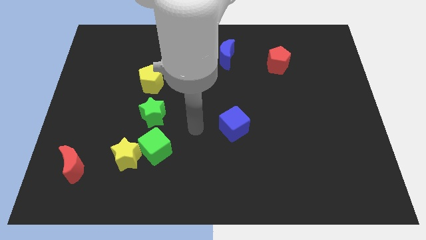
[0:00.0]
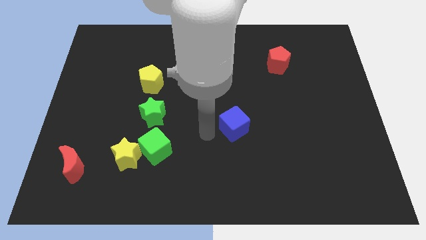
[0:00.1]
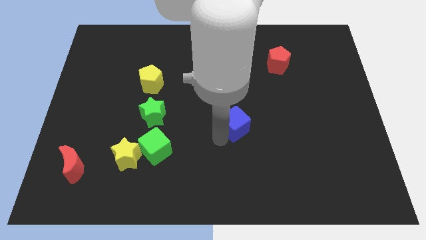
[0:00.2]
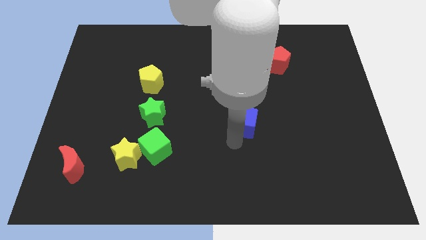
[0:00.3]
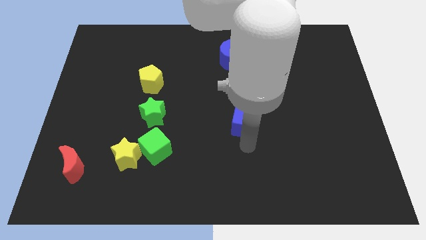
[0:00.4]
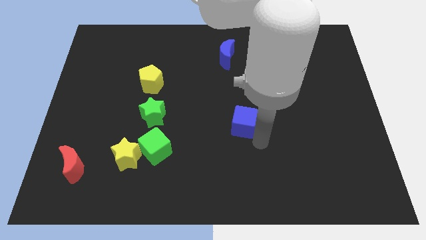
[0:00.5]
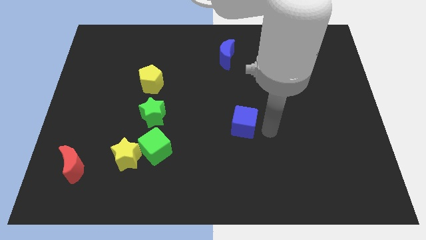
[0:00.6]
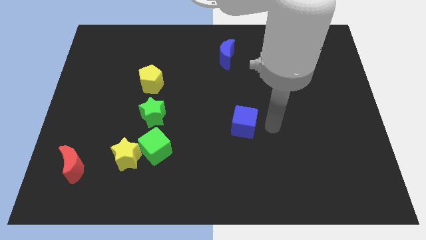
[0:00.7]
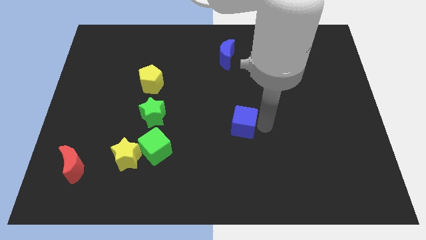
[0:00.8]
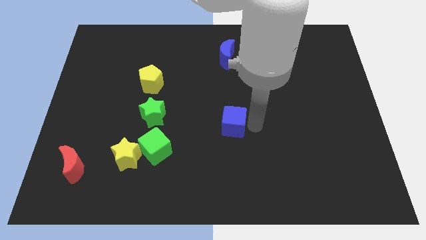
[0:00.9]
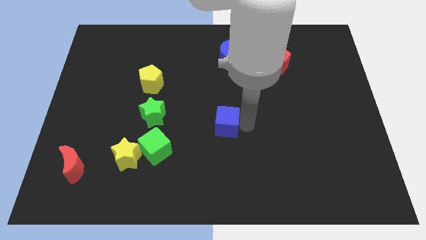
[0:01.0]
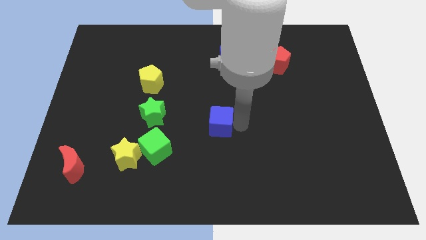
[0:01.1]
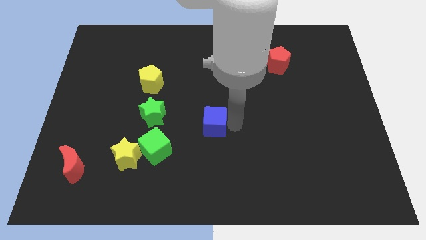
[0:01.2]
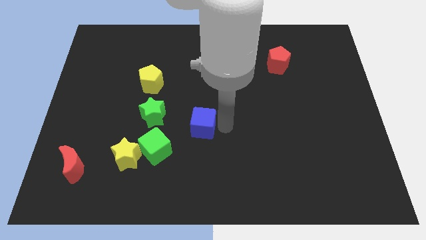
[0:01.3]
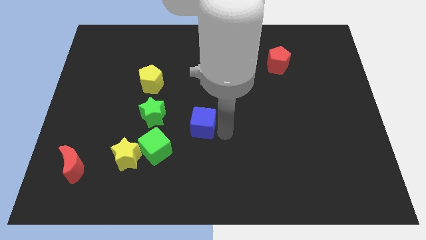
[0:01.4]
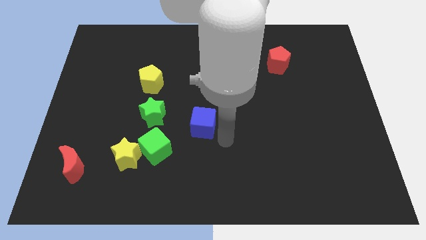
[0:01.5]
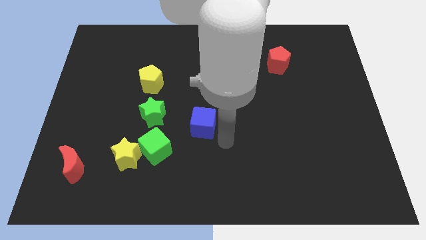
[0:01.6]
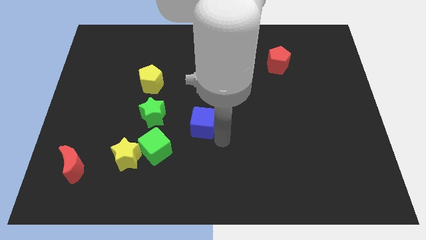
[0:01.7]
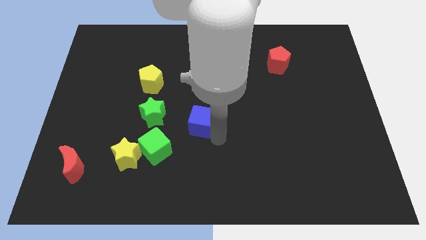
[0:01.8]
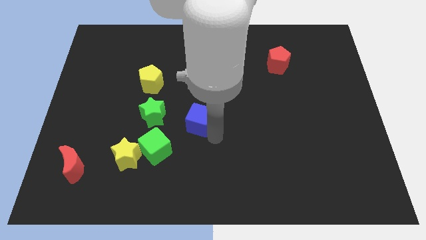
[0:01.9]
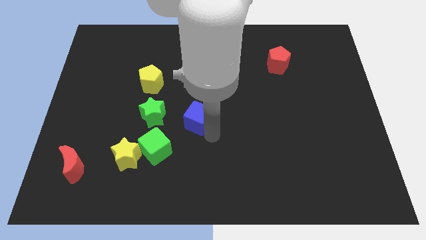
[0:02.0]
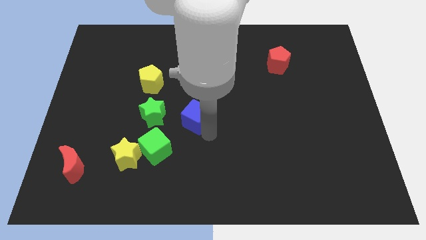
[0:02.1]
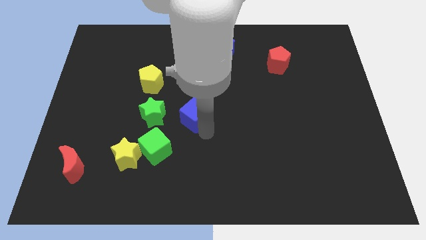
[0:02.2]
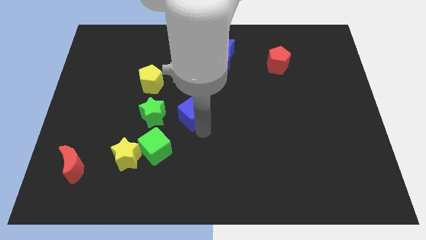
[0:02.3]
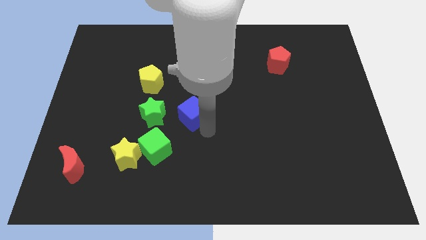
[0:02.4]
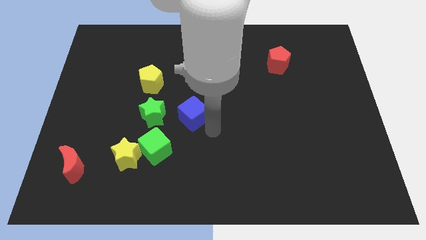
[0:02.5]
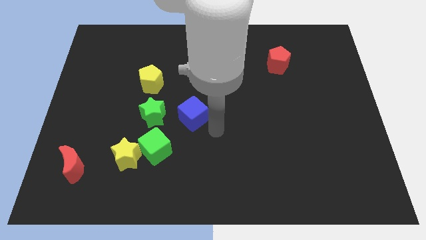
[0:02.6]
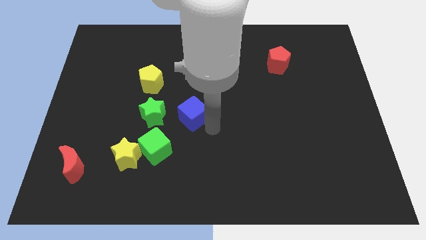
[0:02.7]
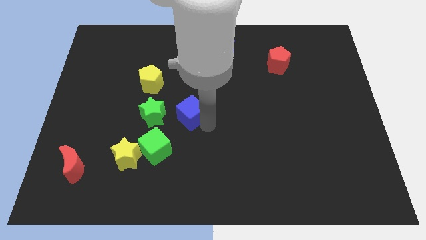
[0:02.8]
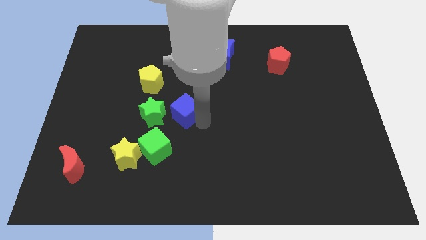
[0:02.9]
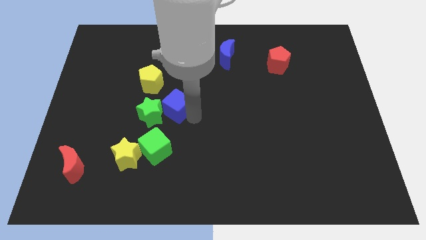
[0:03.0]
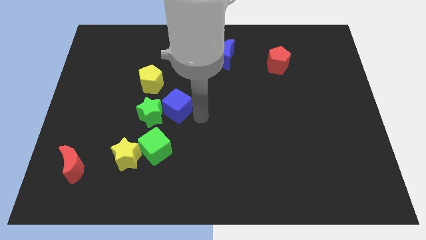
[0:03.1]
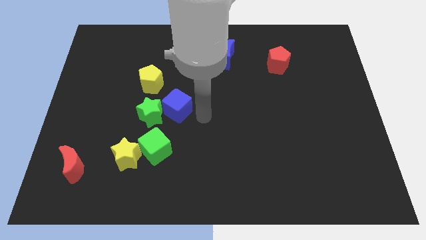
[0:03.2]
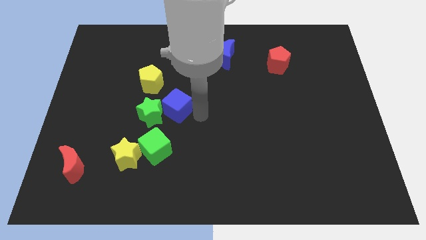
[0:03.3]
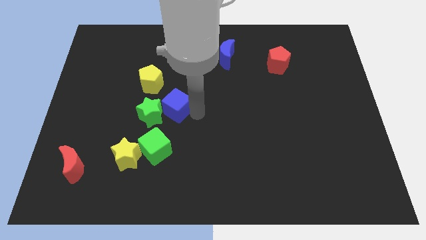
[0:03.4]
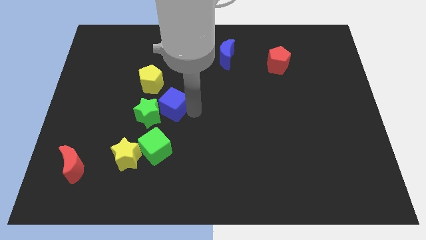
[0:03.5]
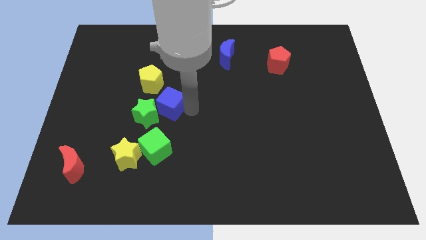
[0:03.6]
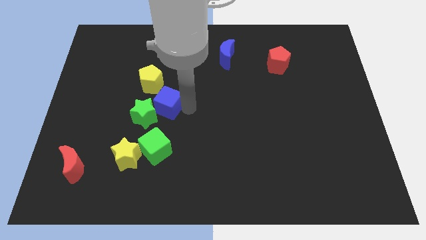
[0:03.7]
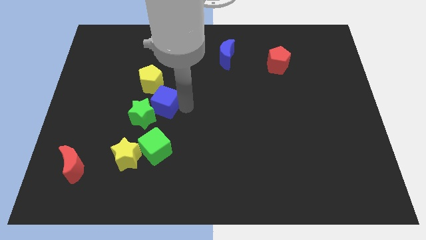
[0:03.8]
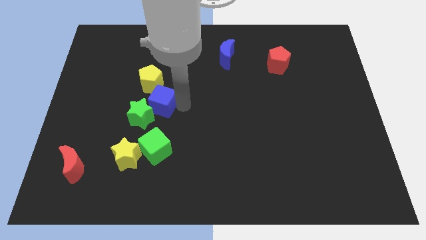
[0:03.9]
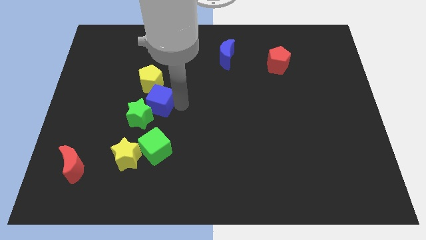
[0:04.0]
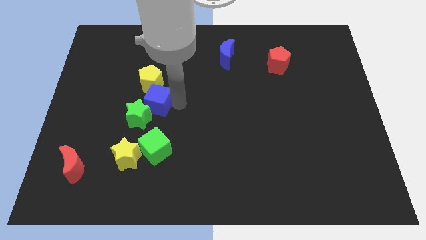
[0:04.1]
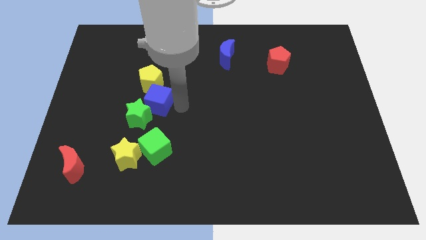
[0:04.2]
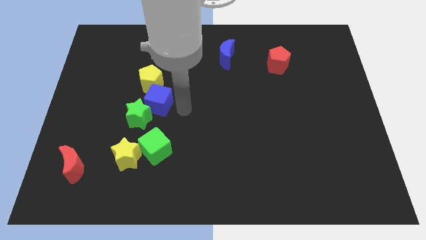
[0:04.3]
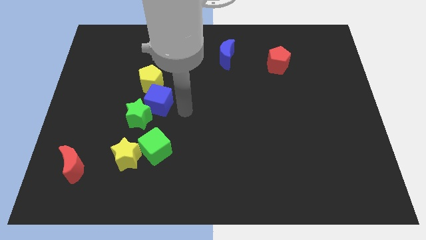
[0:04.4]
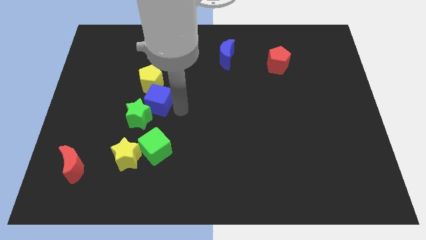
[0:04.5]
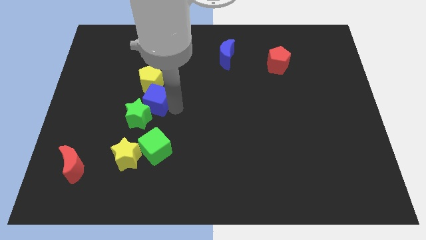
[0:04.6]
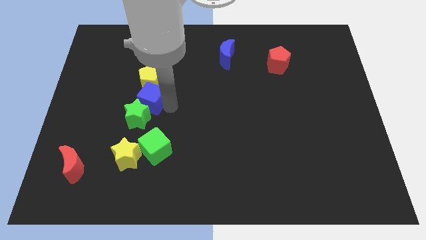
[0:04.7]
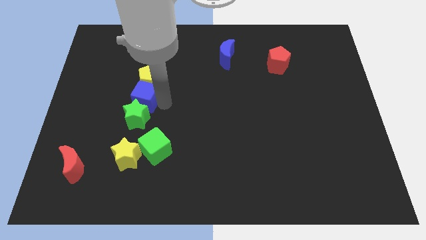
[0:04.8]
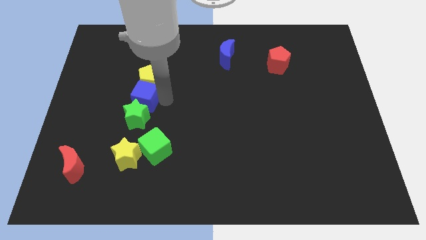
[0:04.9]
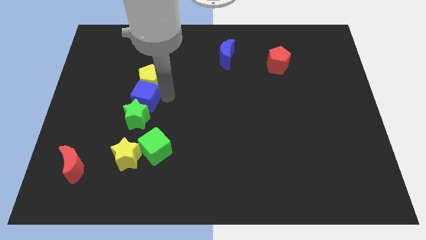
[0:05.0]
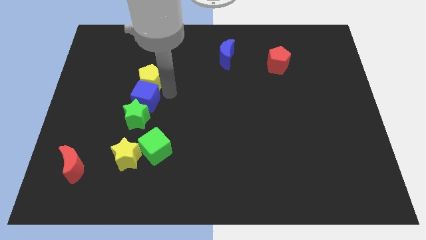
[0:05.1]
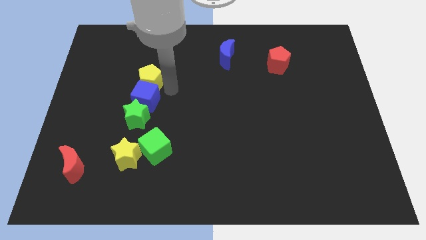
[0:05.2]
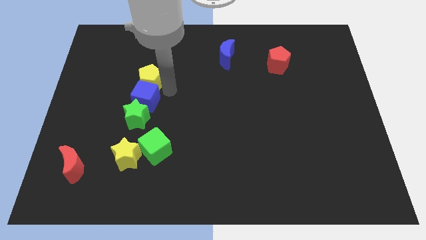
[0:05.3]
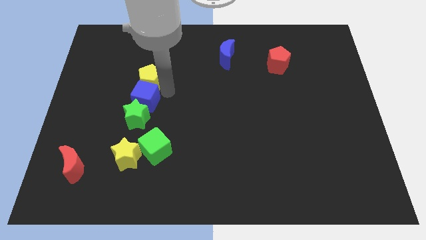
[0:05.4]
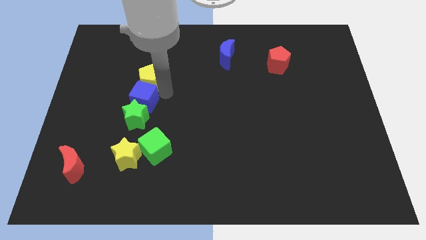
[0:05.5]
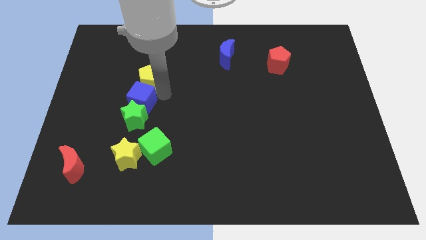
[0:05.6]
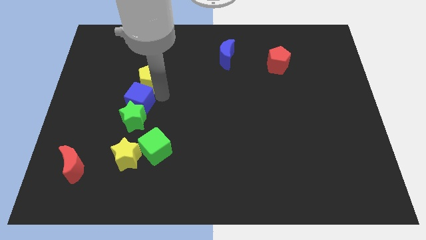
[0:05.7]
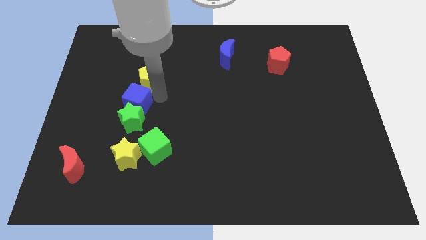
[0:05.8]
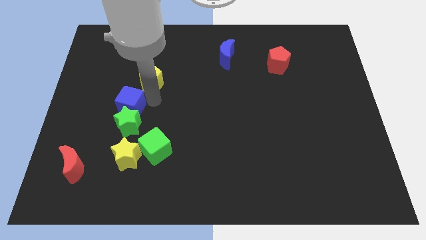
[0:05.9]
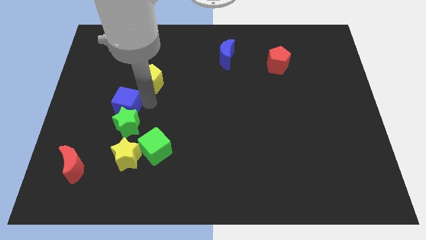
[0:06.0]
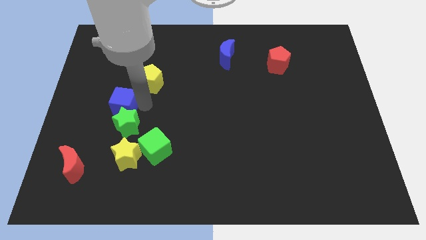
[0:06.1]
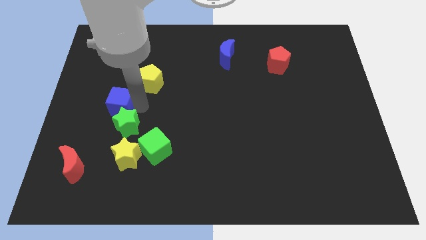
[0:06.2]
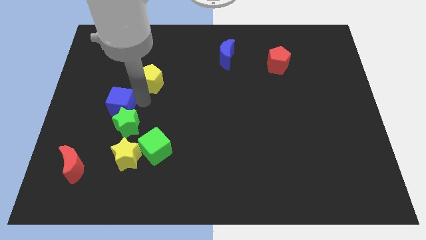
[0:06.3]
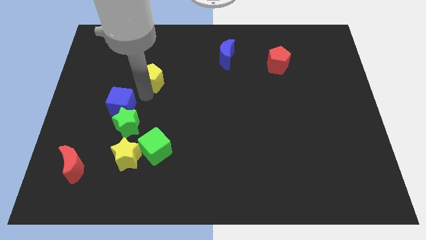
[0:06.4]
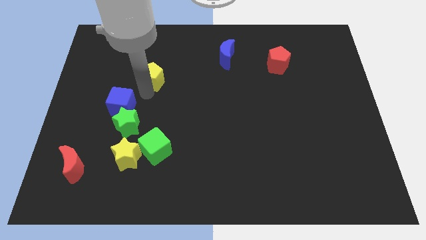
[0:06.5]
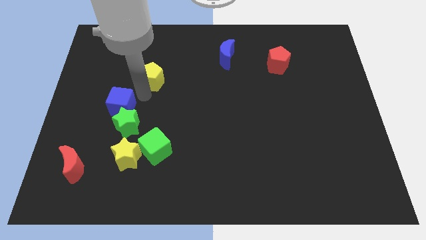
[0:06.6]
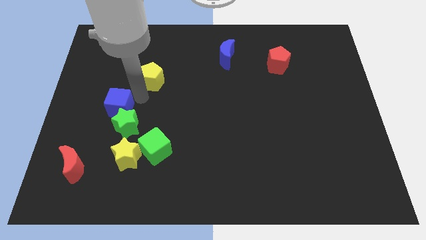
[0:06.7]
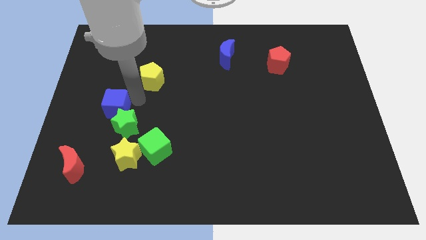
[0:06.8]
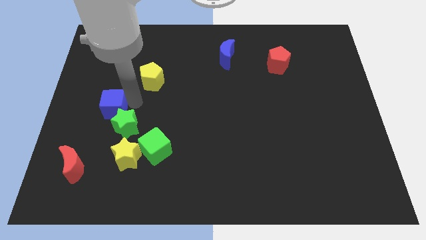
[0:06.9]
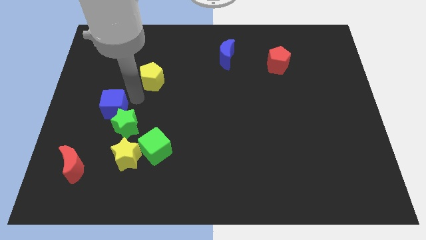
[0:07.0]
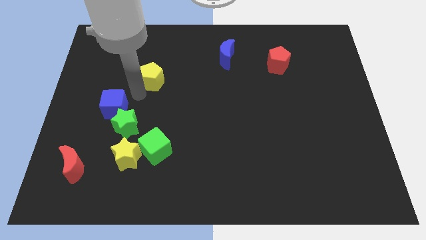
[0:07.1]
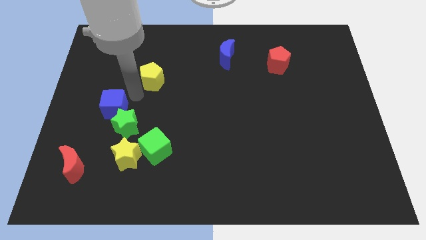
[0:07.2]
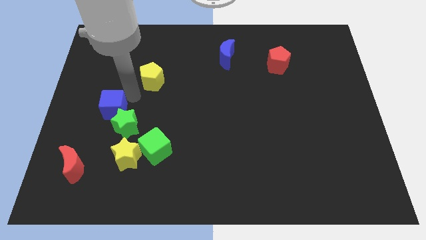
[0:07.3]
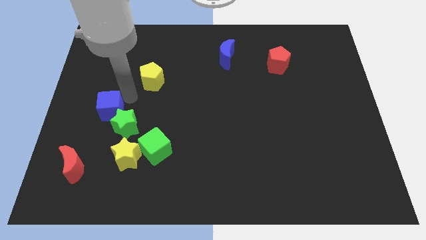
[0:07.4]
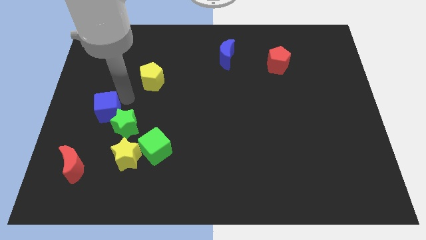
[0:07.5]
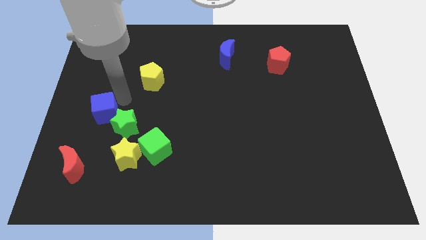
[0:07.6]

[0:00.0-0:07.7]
put the blue cube to the top of the red moon
